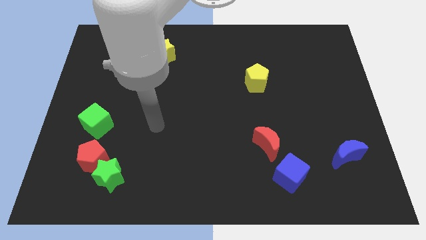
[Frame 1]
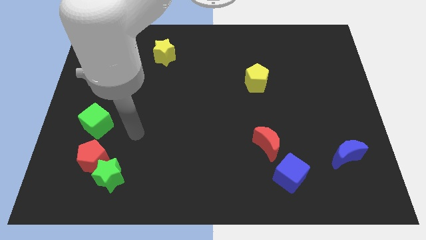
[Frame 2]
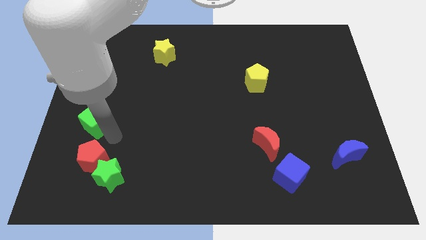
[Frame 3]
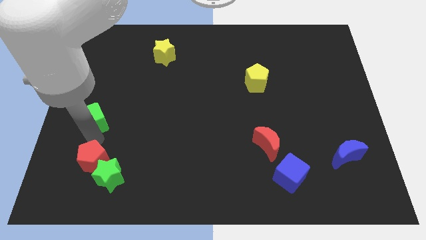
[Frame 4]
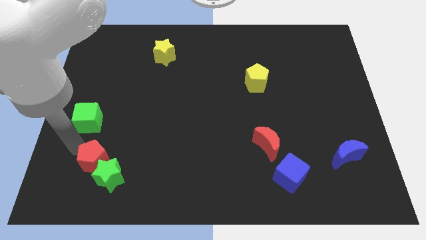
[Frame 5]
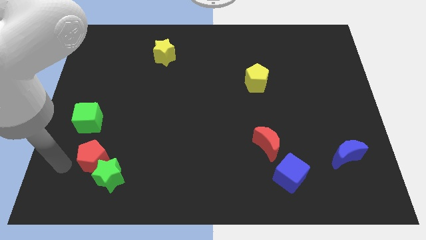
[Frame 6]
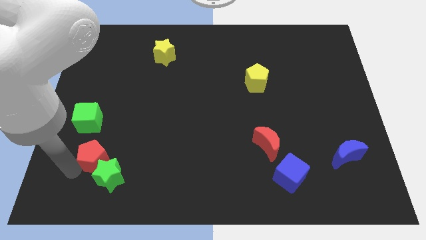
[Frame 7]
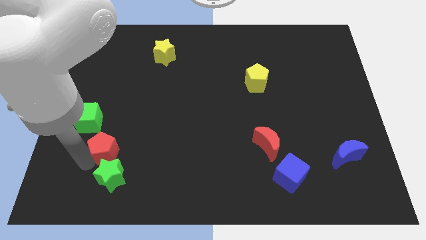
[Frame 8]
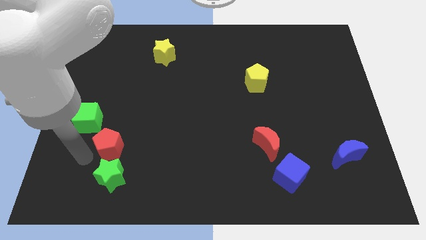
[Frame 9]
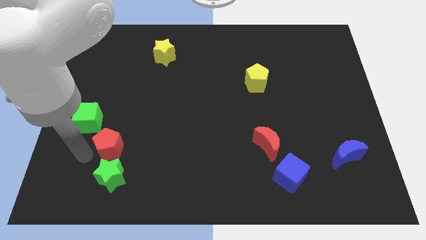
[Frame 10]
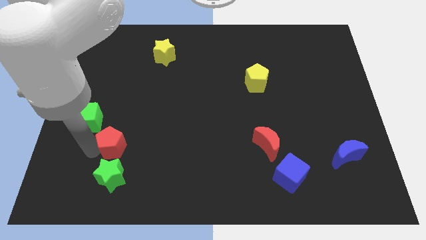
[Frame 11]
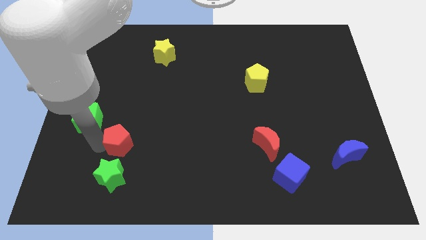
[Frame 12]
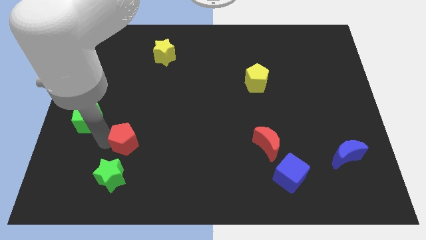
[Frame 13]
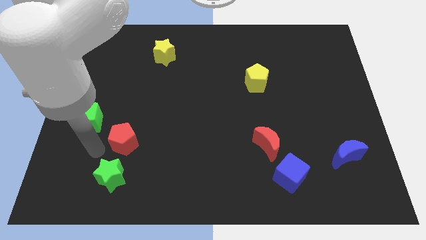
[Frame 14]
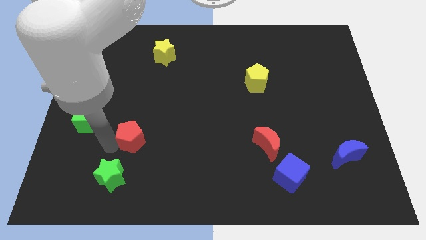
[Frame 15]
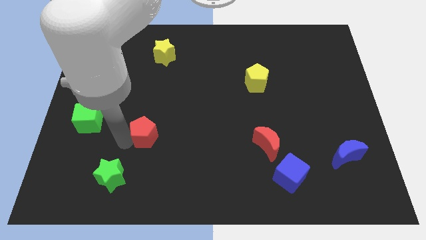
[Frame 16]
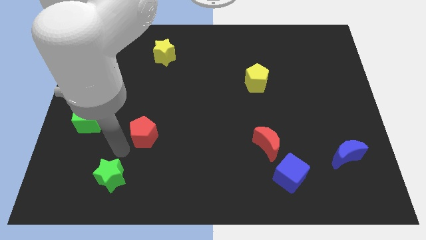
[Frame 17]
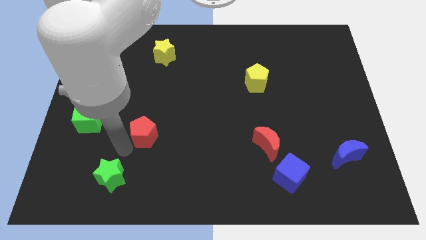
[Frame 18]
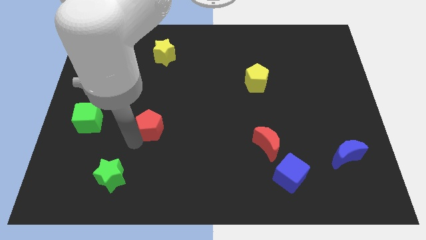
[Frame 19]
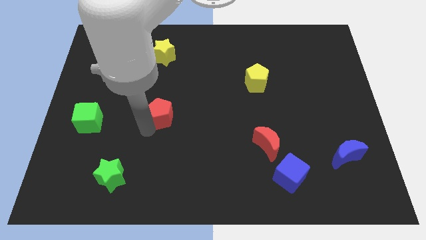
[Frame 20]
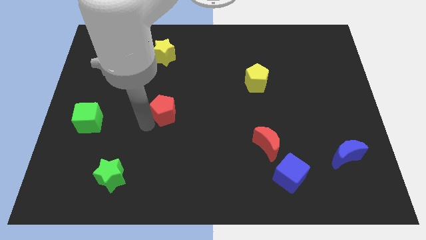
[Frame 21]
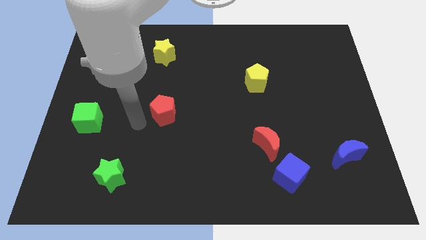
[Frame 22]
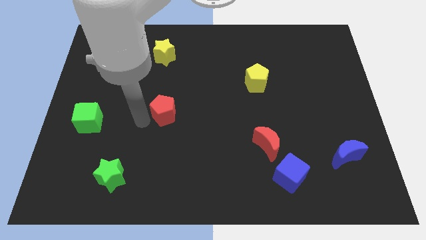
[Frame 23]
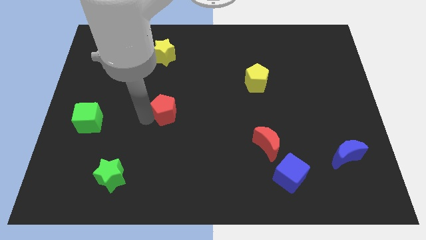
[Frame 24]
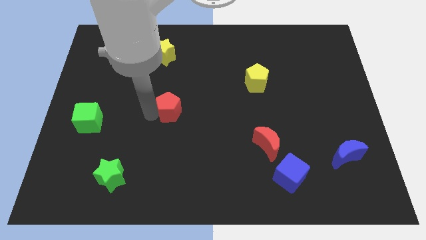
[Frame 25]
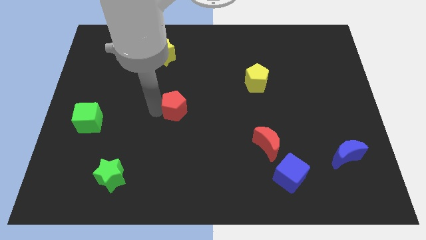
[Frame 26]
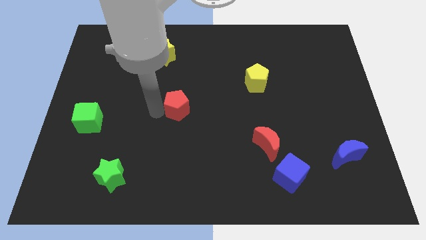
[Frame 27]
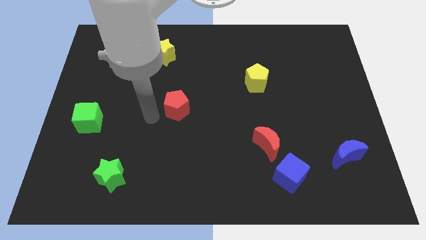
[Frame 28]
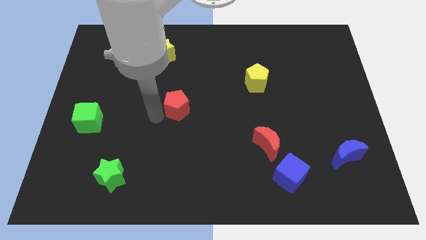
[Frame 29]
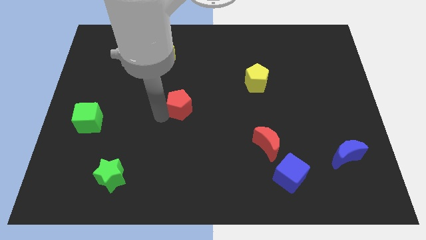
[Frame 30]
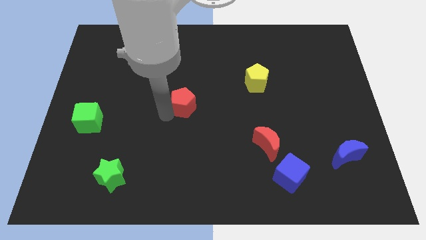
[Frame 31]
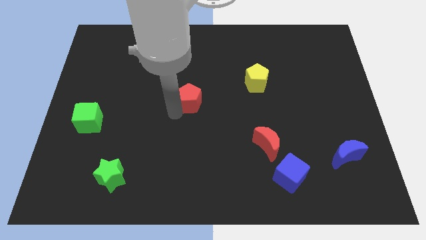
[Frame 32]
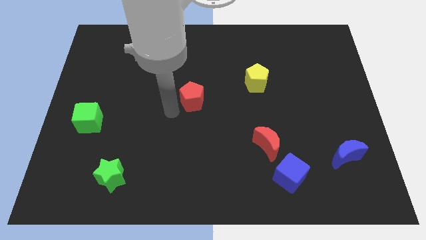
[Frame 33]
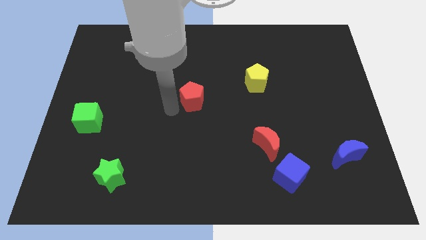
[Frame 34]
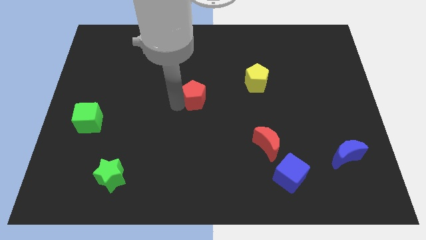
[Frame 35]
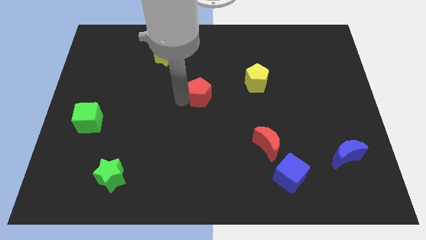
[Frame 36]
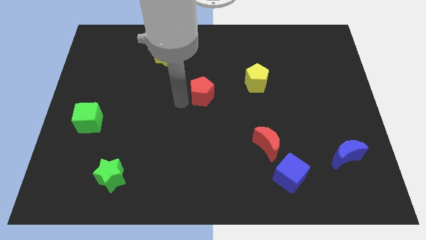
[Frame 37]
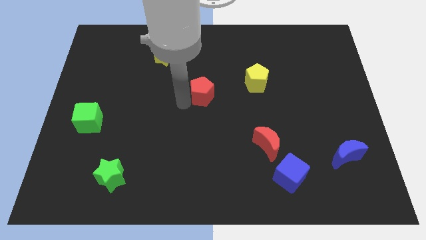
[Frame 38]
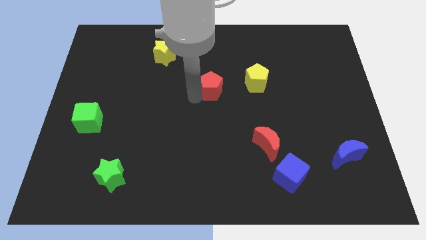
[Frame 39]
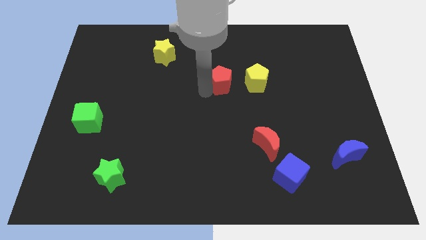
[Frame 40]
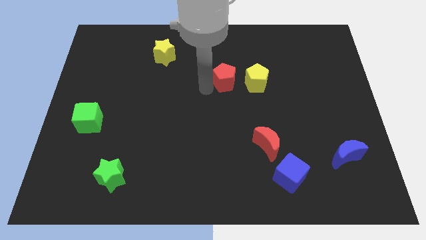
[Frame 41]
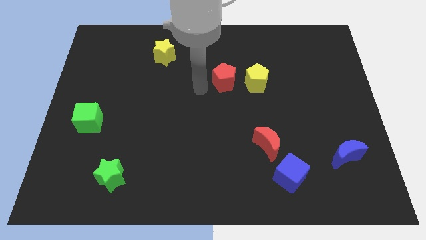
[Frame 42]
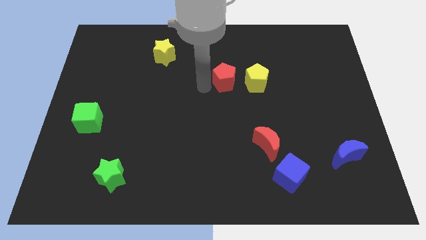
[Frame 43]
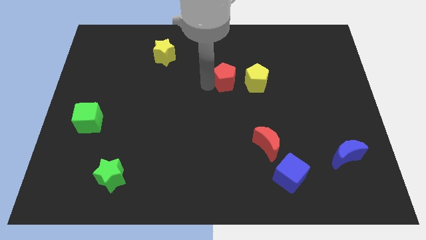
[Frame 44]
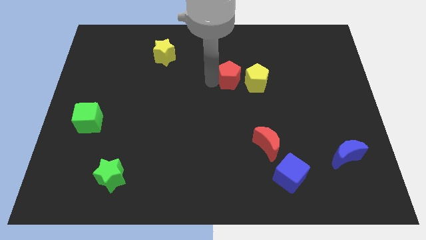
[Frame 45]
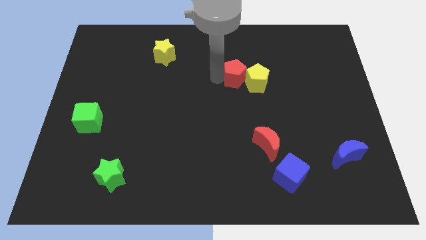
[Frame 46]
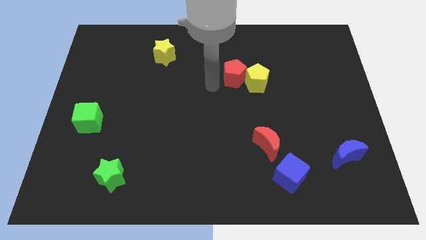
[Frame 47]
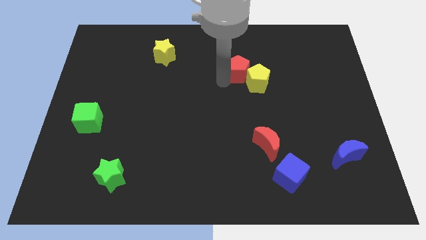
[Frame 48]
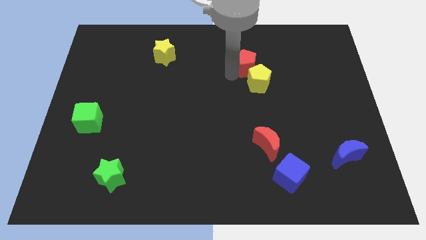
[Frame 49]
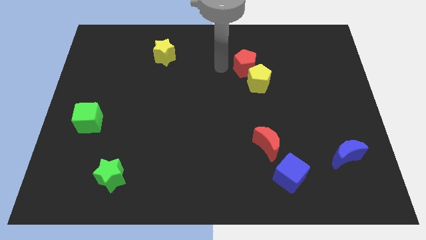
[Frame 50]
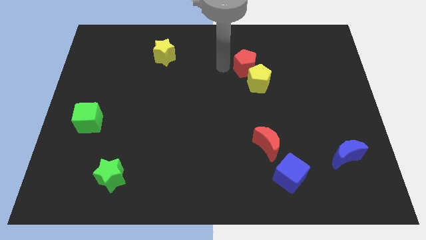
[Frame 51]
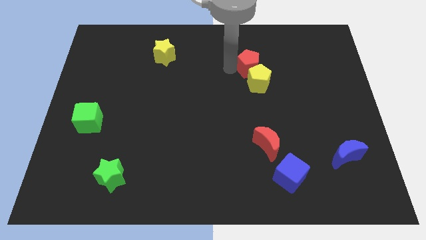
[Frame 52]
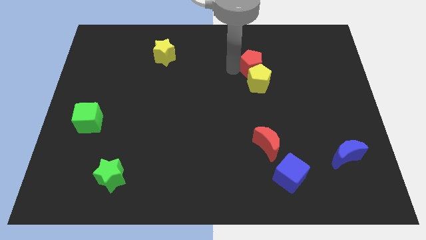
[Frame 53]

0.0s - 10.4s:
put the red pentagon diagonally up and to the right of the yellow pentagon

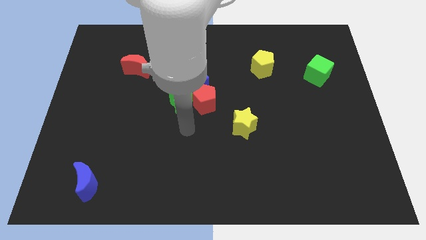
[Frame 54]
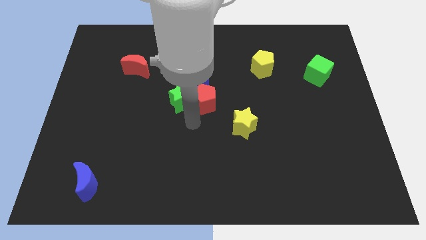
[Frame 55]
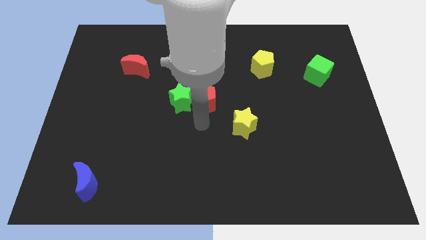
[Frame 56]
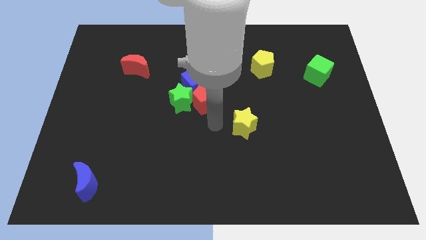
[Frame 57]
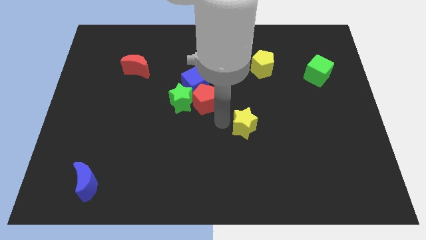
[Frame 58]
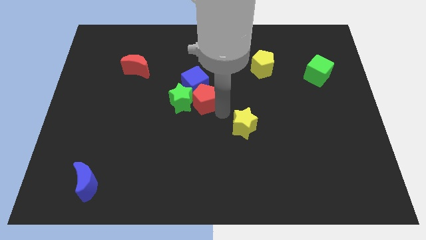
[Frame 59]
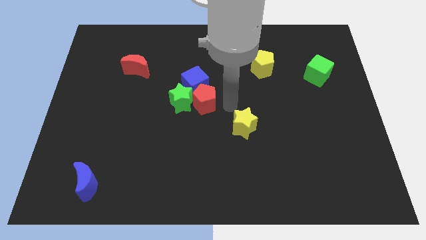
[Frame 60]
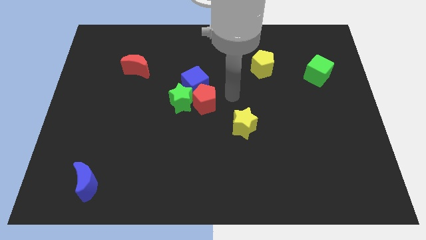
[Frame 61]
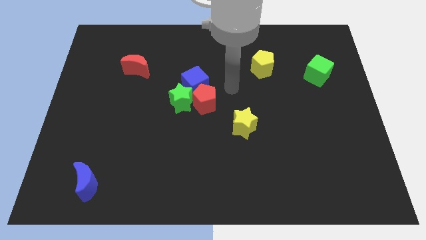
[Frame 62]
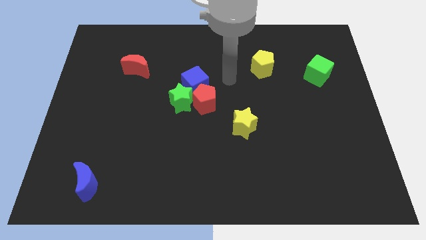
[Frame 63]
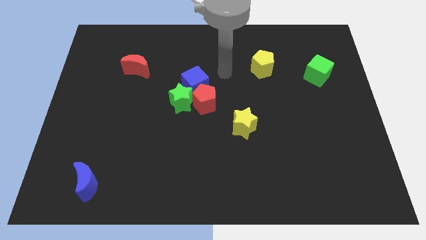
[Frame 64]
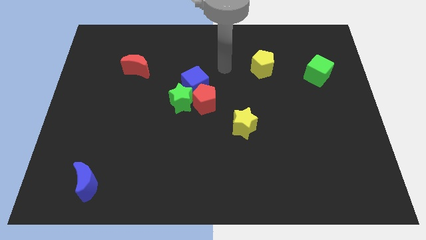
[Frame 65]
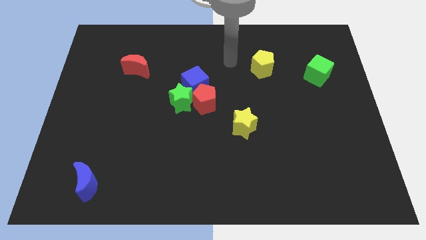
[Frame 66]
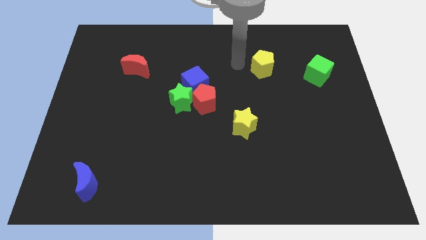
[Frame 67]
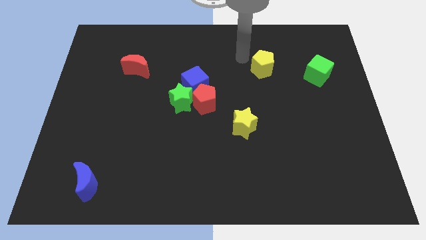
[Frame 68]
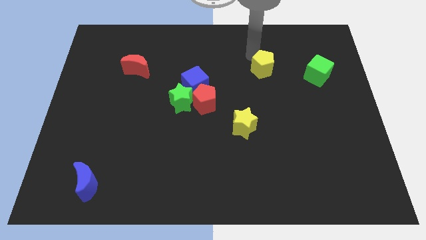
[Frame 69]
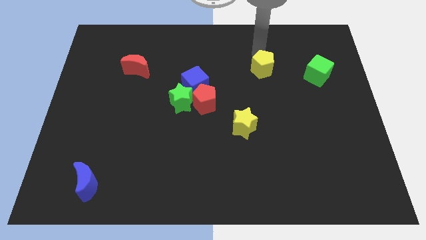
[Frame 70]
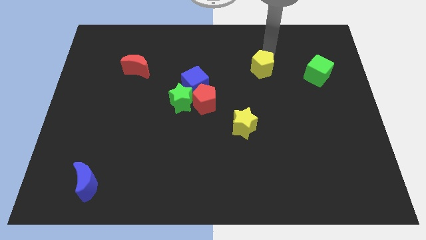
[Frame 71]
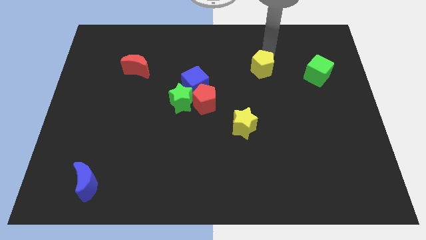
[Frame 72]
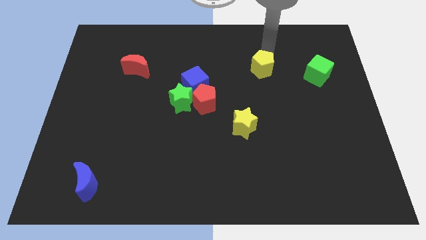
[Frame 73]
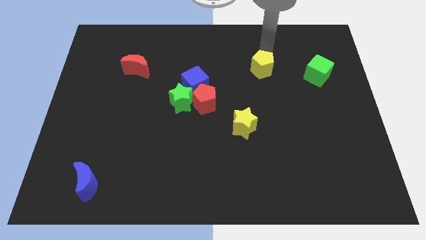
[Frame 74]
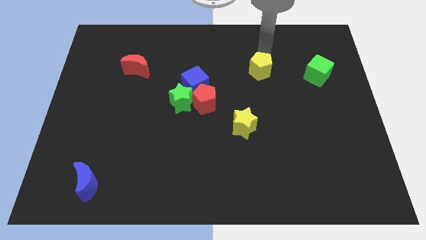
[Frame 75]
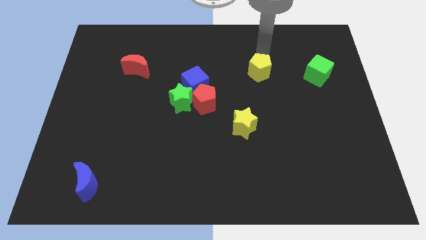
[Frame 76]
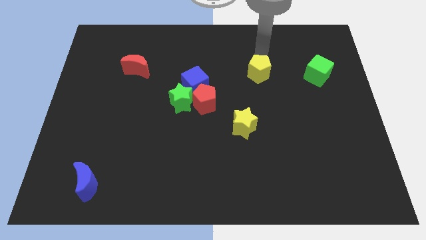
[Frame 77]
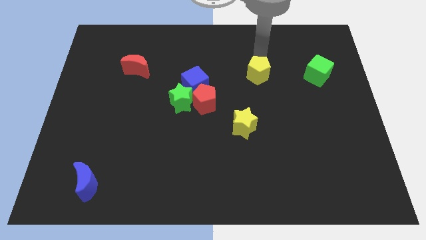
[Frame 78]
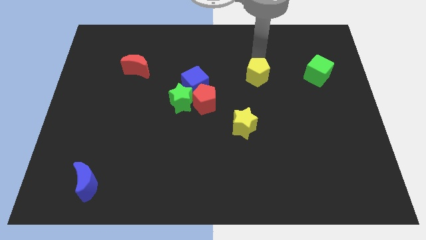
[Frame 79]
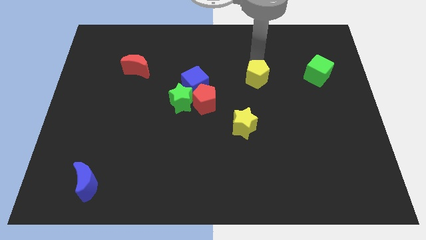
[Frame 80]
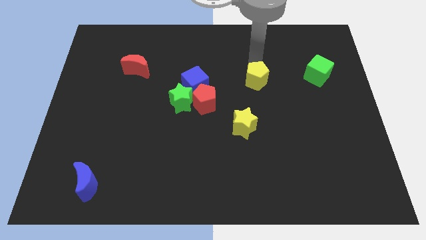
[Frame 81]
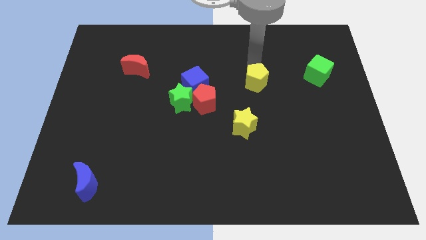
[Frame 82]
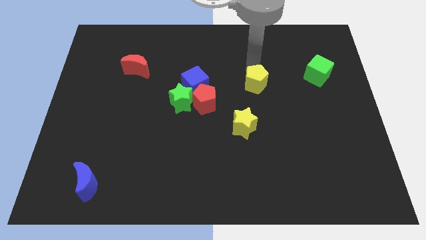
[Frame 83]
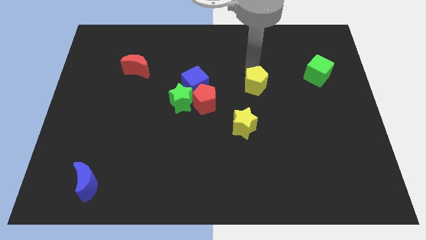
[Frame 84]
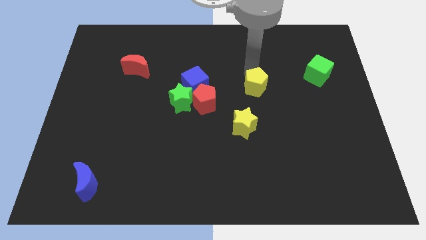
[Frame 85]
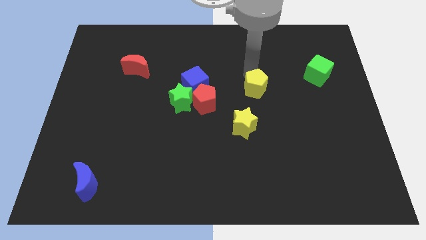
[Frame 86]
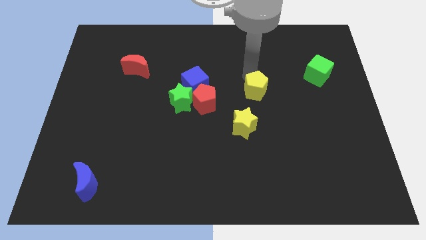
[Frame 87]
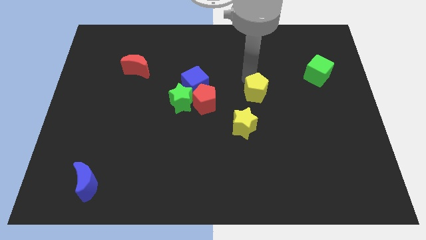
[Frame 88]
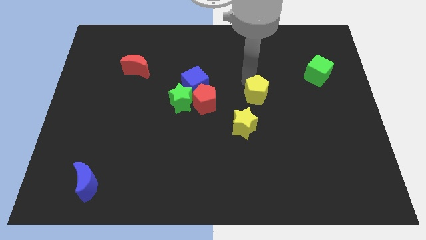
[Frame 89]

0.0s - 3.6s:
push the yellow pentagon to the top right side of the yellow star
